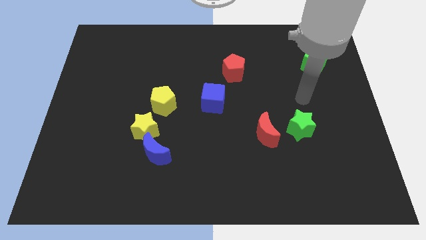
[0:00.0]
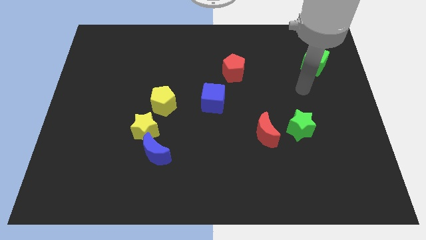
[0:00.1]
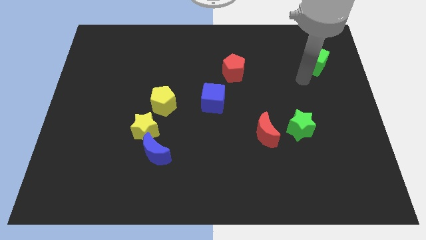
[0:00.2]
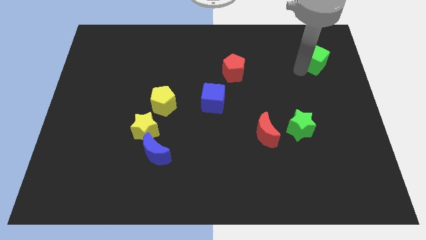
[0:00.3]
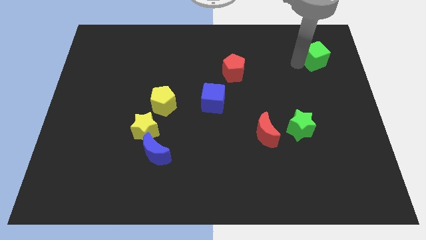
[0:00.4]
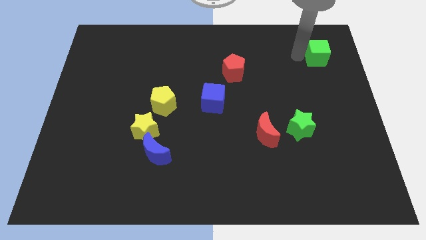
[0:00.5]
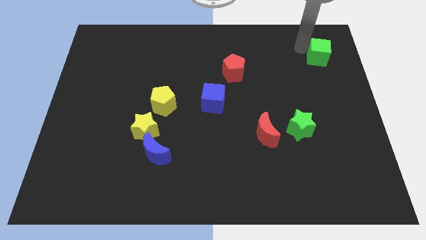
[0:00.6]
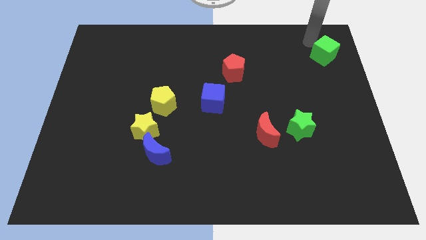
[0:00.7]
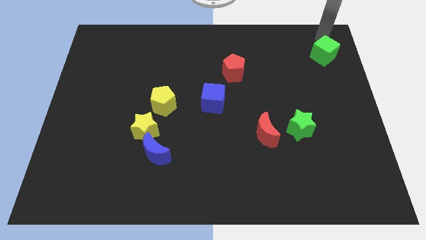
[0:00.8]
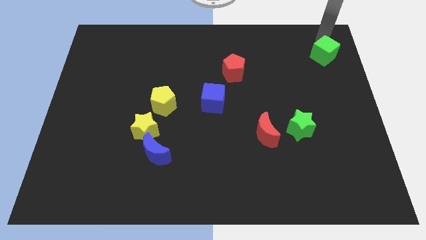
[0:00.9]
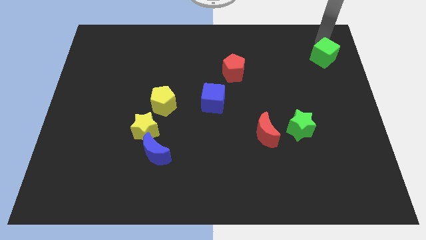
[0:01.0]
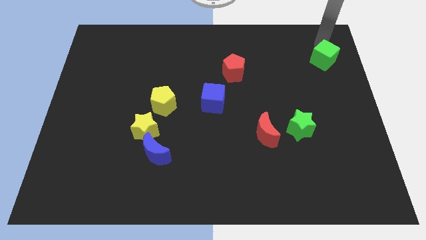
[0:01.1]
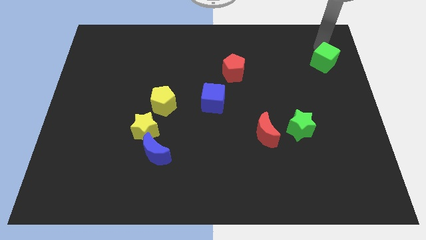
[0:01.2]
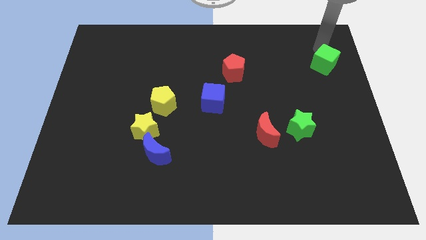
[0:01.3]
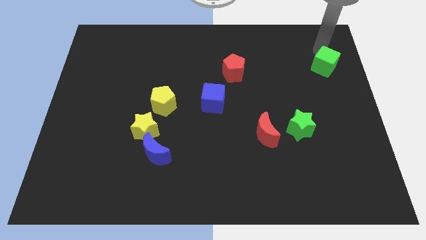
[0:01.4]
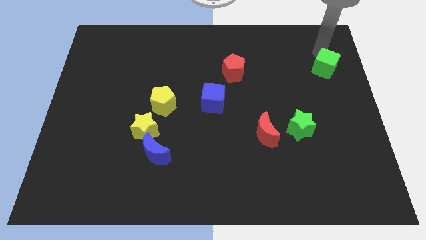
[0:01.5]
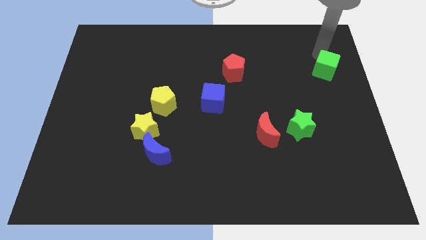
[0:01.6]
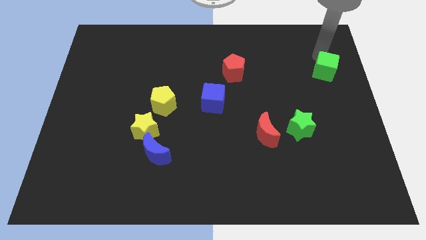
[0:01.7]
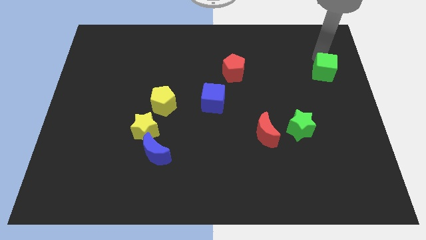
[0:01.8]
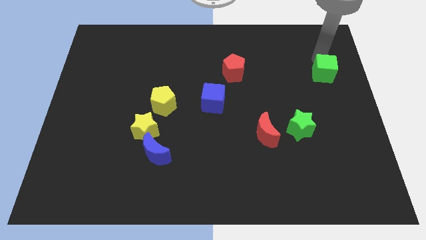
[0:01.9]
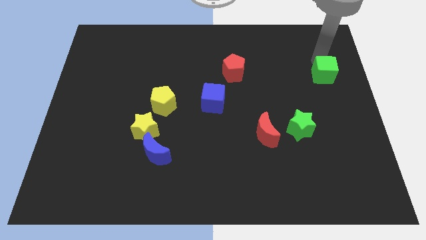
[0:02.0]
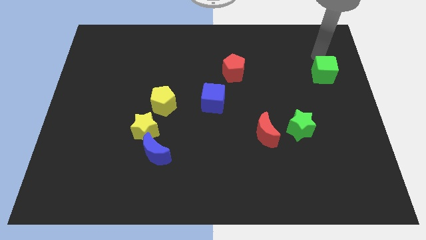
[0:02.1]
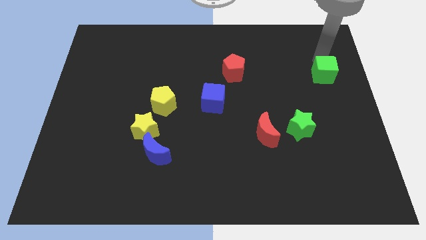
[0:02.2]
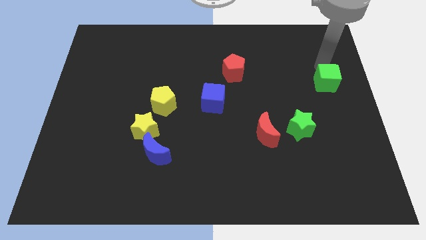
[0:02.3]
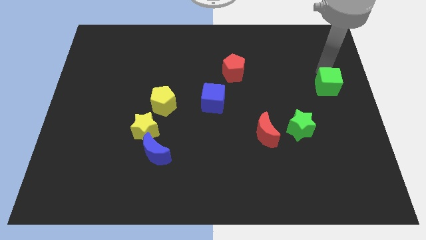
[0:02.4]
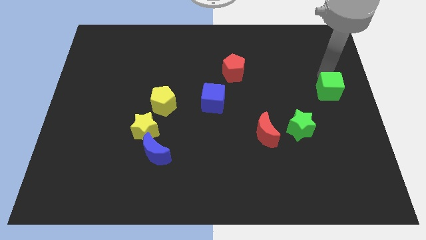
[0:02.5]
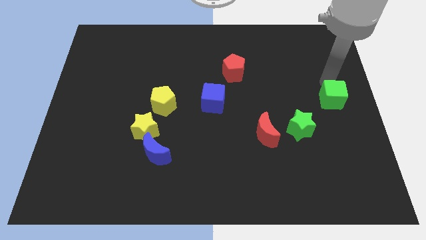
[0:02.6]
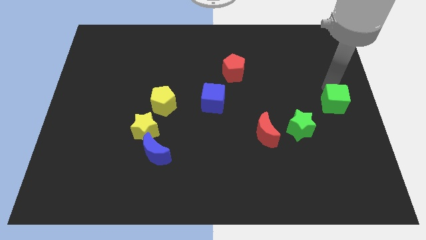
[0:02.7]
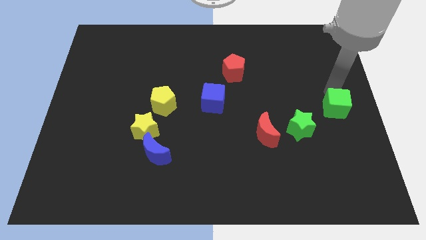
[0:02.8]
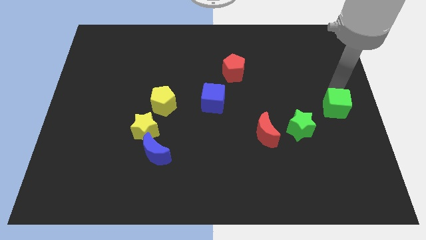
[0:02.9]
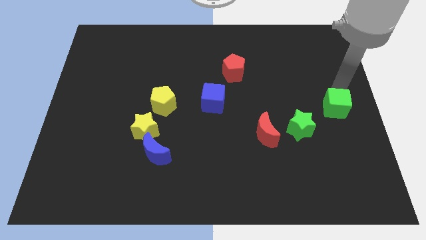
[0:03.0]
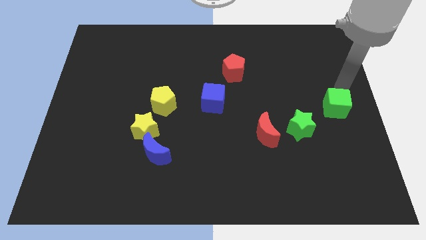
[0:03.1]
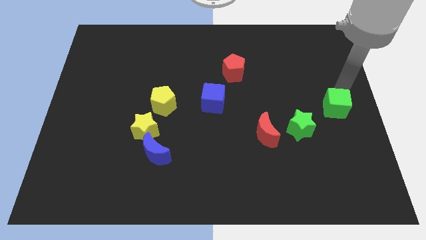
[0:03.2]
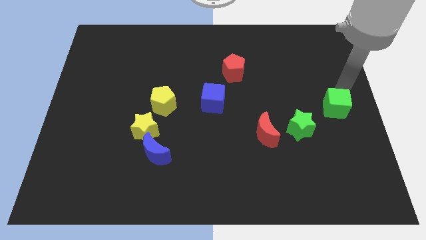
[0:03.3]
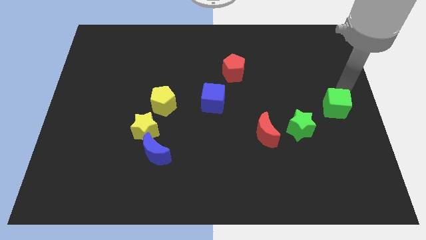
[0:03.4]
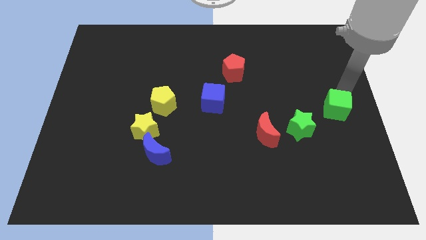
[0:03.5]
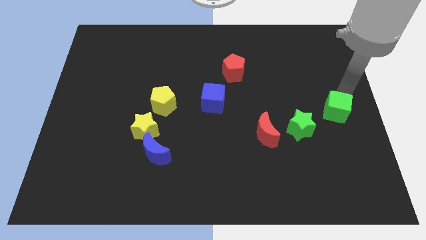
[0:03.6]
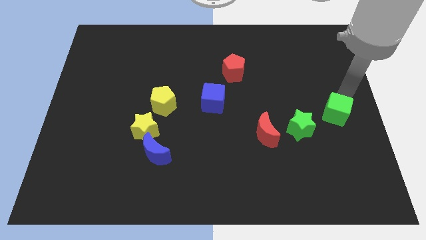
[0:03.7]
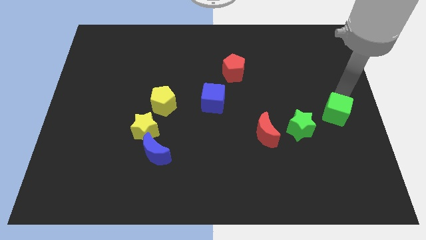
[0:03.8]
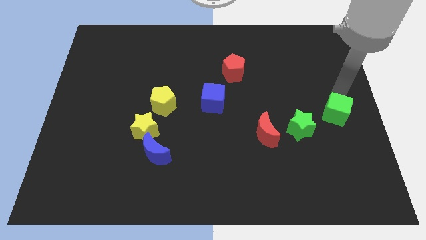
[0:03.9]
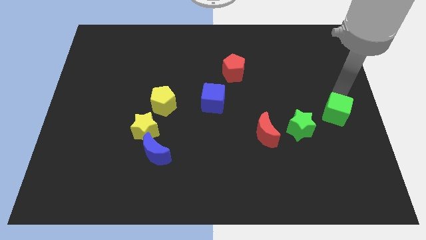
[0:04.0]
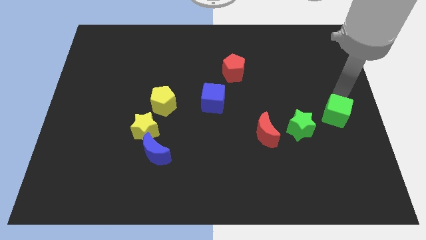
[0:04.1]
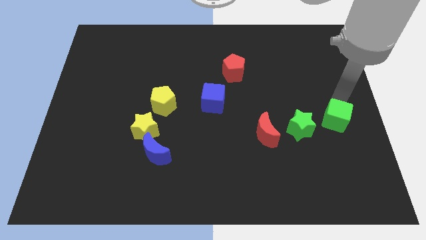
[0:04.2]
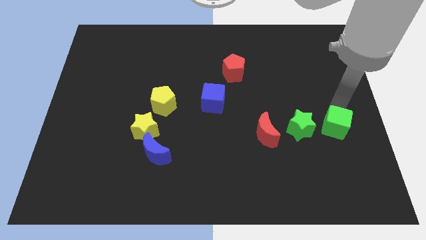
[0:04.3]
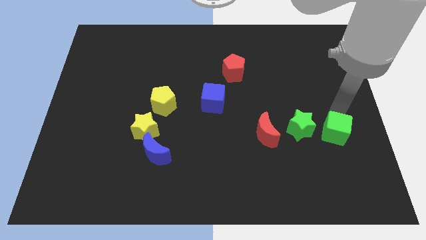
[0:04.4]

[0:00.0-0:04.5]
move the green cube downwards

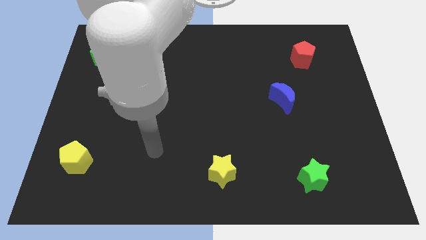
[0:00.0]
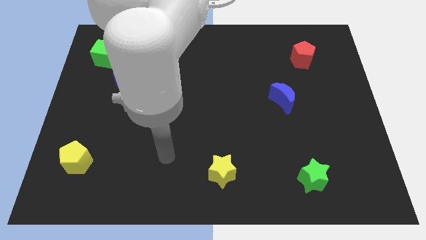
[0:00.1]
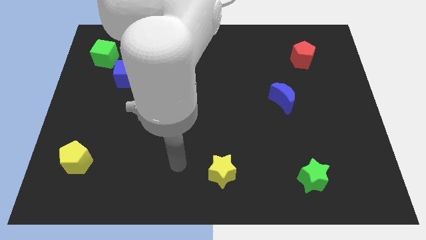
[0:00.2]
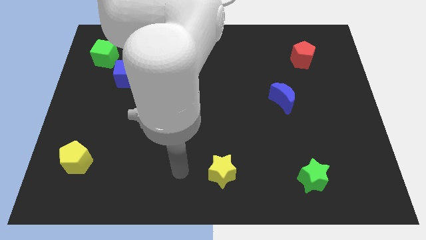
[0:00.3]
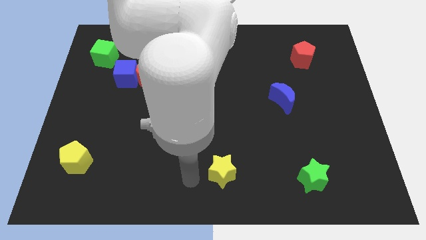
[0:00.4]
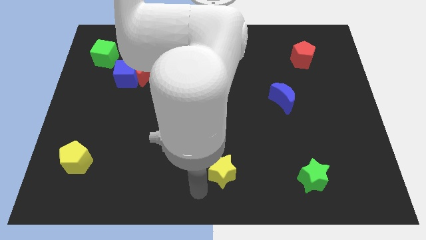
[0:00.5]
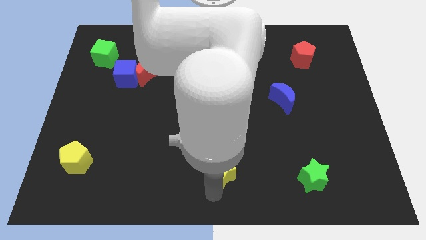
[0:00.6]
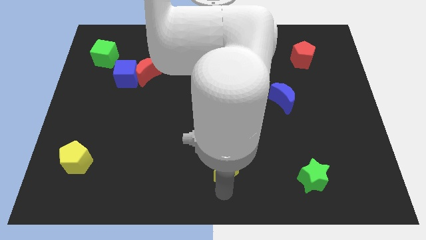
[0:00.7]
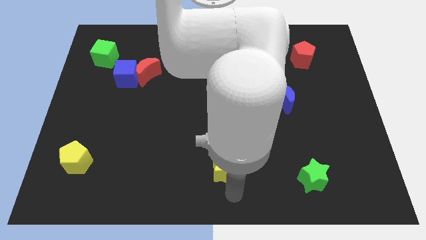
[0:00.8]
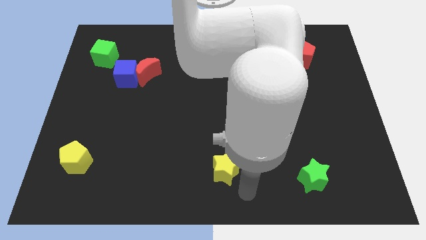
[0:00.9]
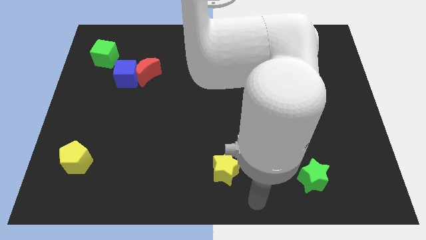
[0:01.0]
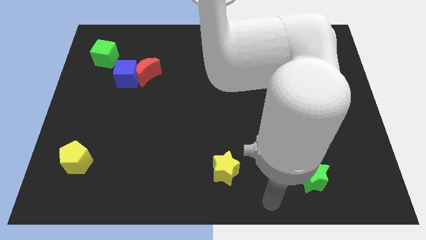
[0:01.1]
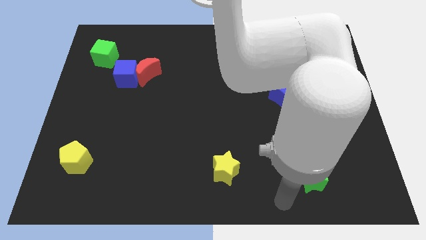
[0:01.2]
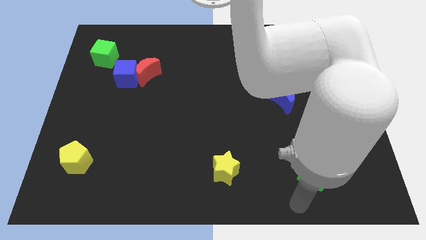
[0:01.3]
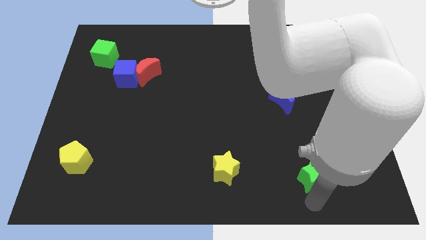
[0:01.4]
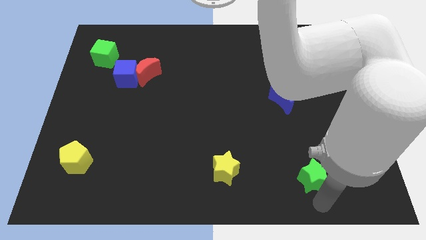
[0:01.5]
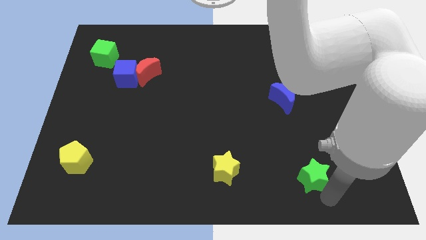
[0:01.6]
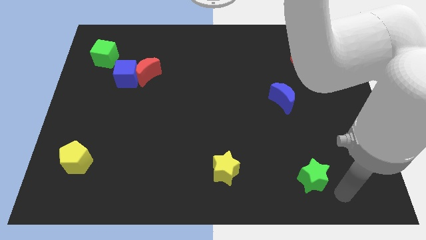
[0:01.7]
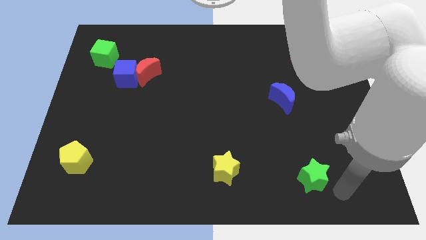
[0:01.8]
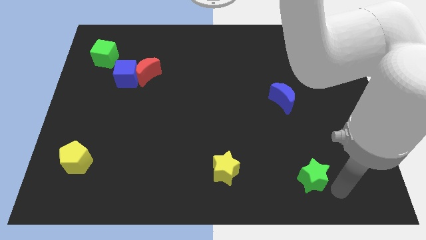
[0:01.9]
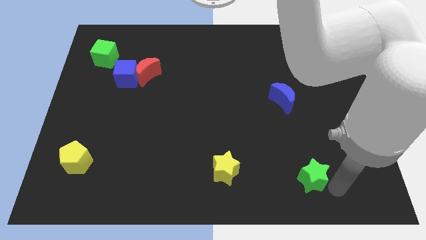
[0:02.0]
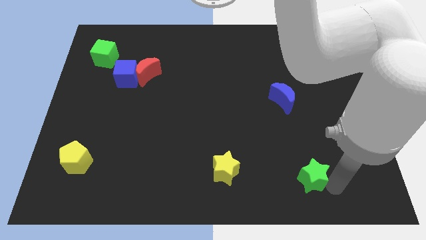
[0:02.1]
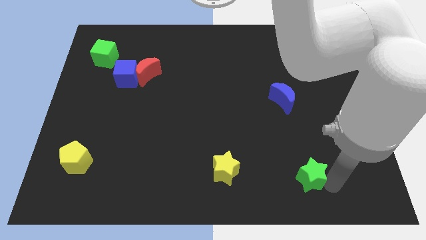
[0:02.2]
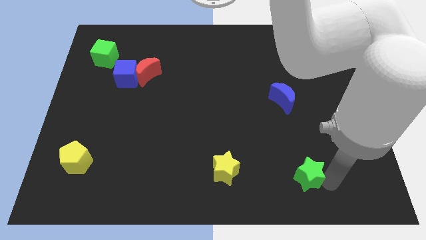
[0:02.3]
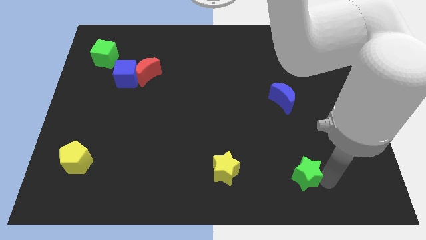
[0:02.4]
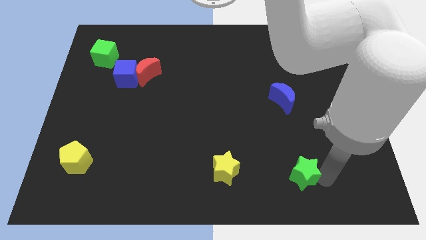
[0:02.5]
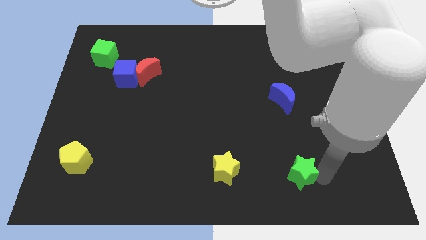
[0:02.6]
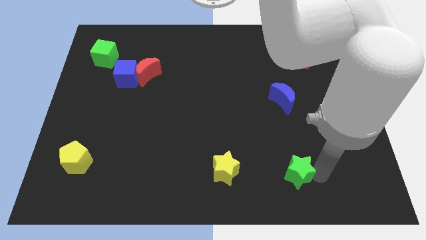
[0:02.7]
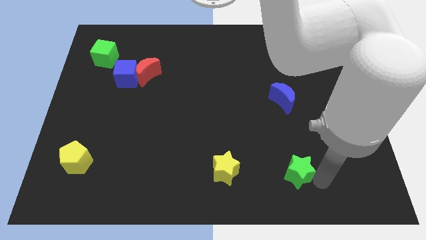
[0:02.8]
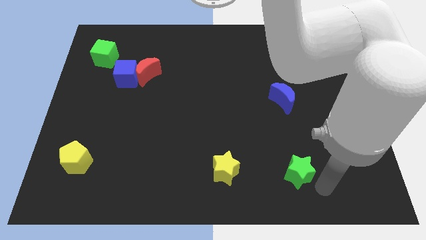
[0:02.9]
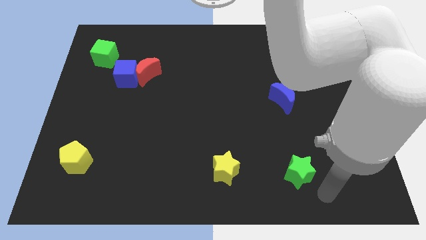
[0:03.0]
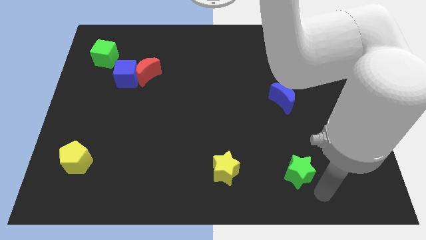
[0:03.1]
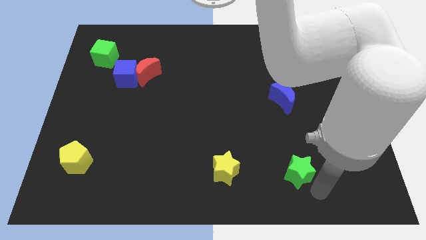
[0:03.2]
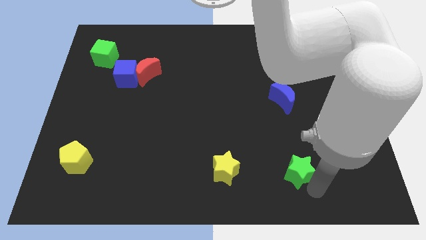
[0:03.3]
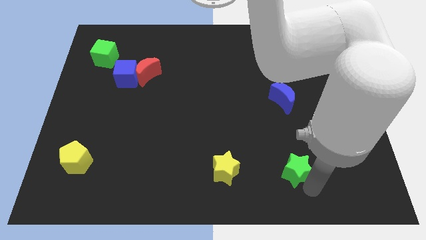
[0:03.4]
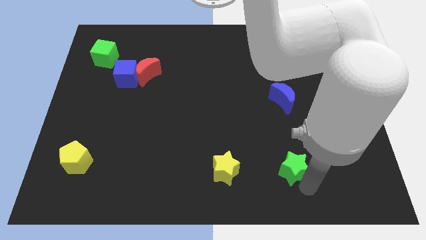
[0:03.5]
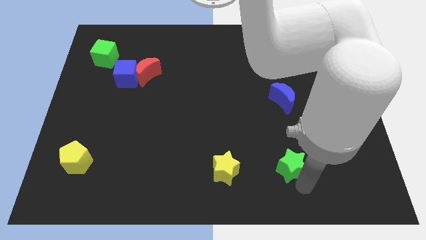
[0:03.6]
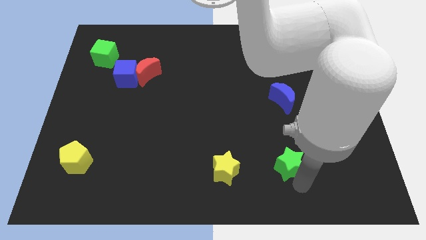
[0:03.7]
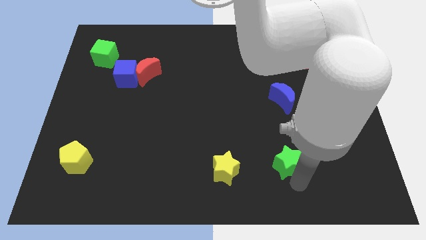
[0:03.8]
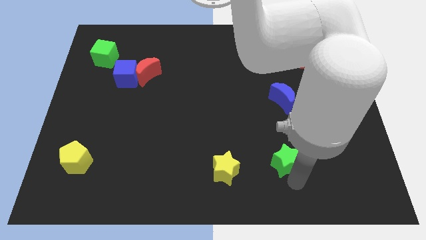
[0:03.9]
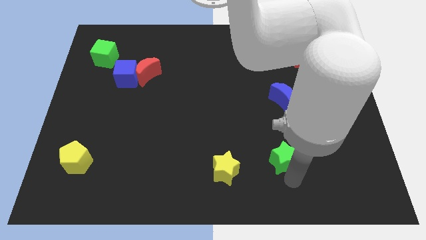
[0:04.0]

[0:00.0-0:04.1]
slightly slide the green star upwards and to the left
